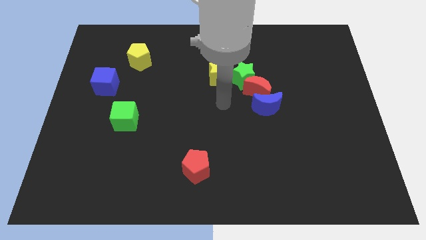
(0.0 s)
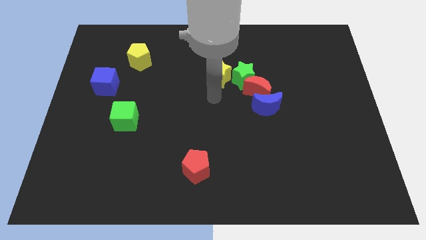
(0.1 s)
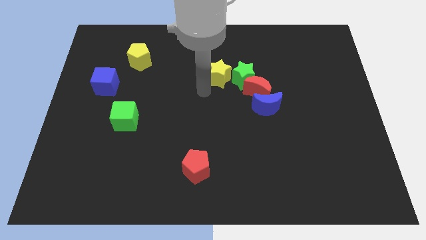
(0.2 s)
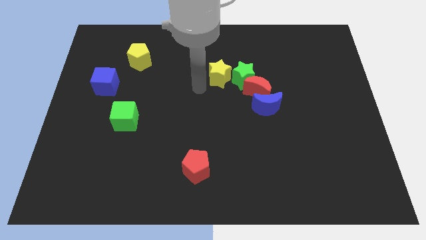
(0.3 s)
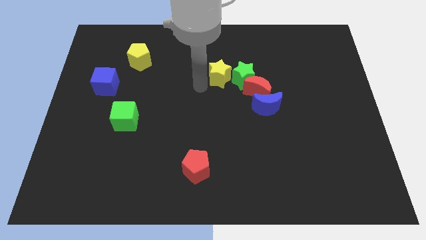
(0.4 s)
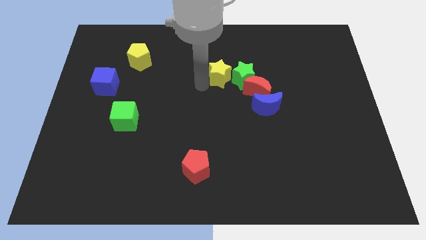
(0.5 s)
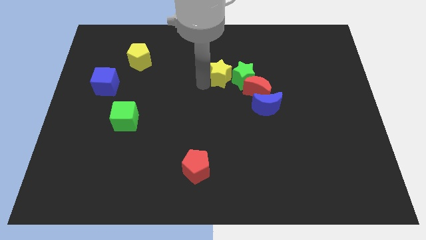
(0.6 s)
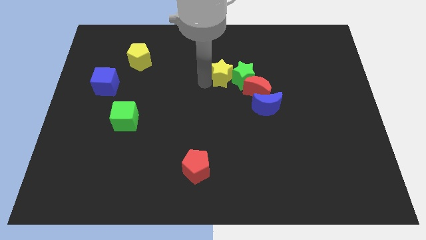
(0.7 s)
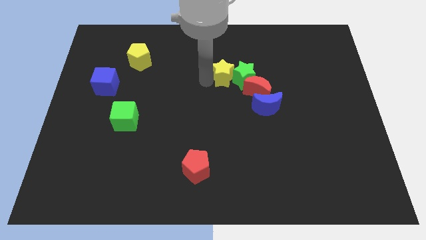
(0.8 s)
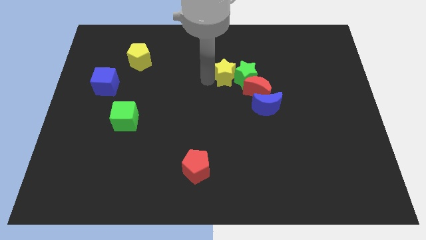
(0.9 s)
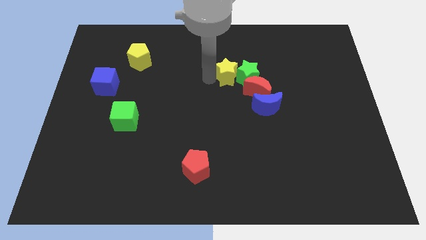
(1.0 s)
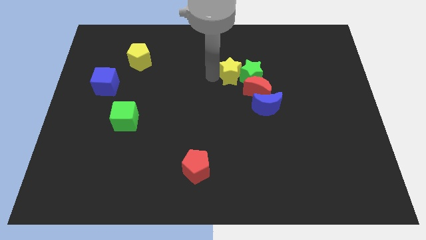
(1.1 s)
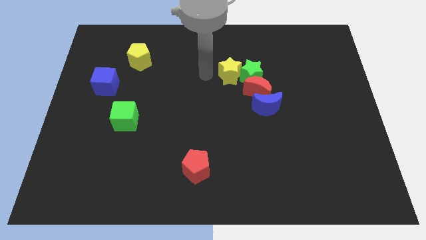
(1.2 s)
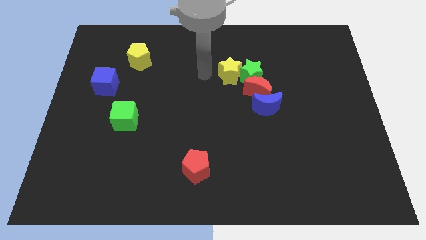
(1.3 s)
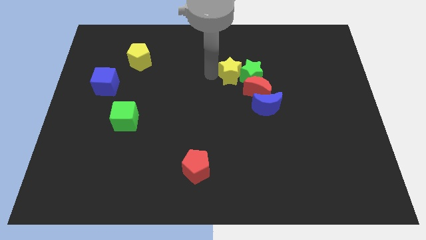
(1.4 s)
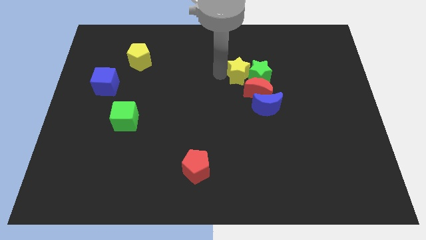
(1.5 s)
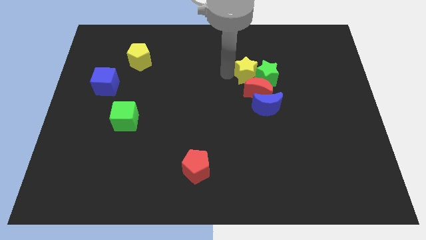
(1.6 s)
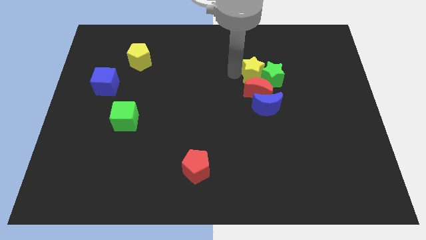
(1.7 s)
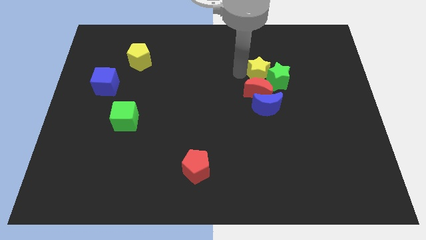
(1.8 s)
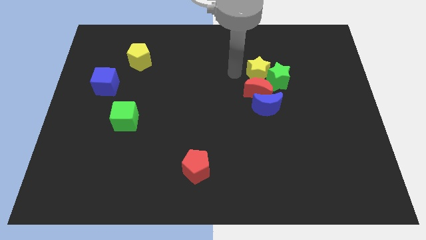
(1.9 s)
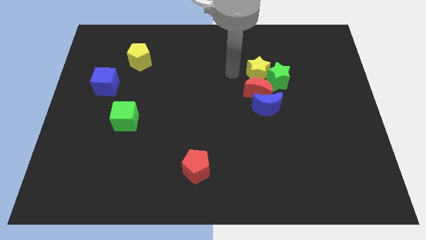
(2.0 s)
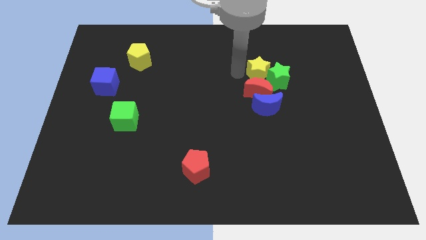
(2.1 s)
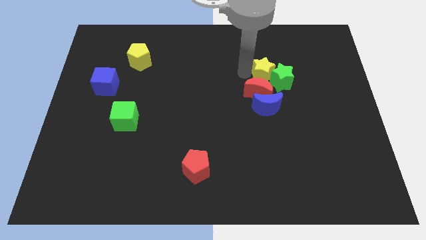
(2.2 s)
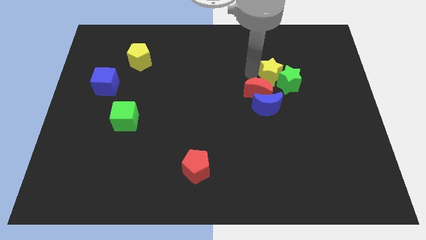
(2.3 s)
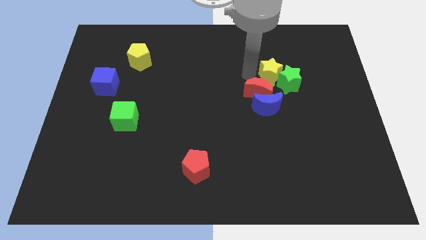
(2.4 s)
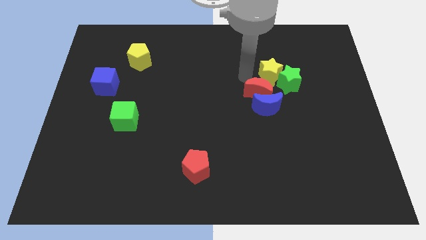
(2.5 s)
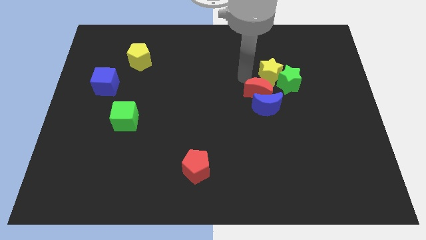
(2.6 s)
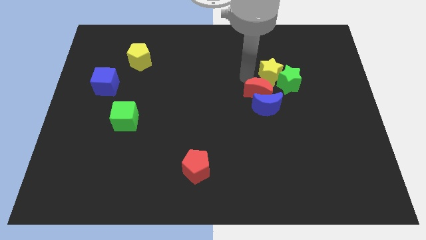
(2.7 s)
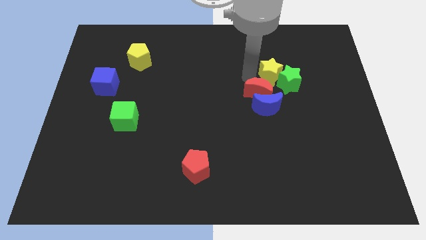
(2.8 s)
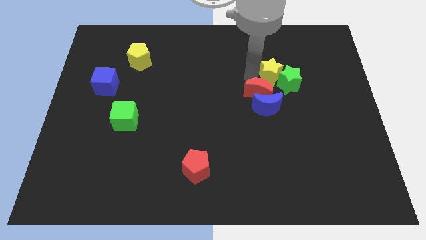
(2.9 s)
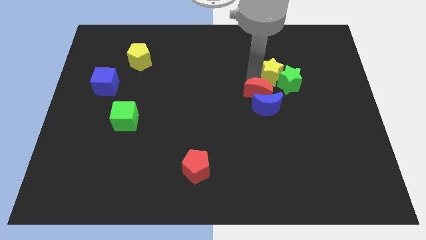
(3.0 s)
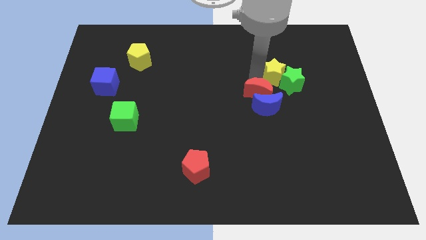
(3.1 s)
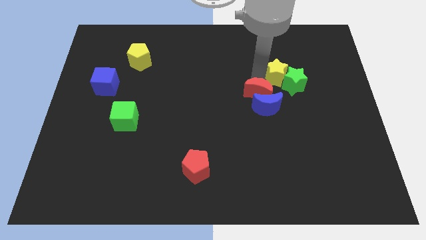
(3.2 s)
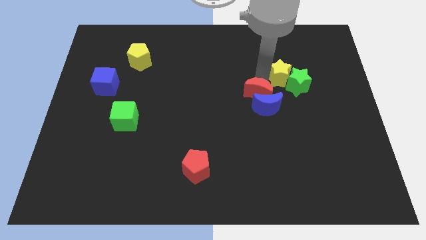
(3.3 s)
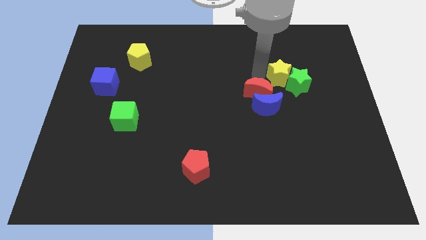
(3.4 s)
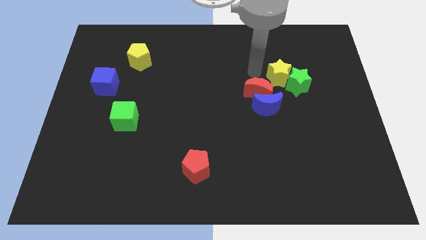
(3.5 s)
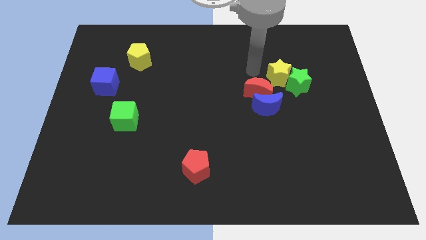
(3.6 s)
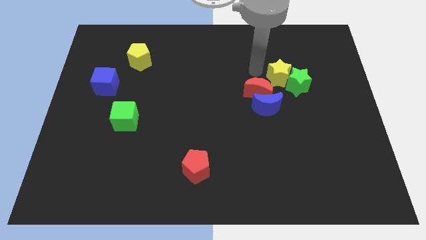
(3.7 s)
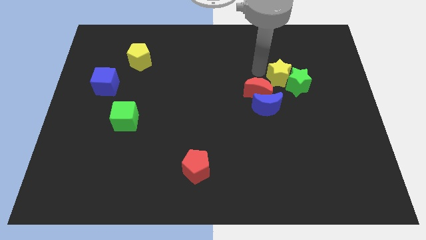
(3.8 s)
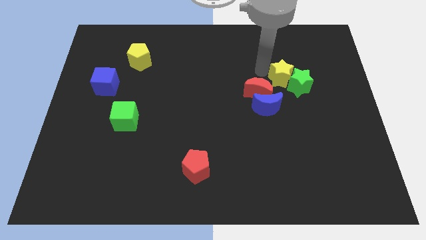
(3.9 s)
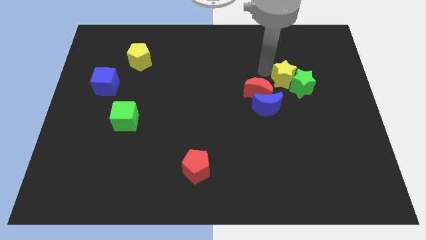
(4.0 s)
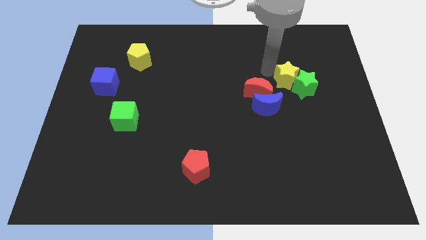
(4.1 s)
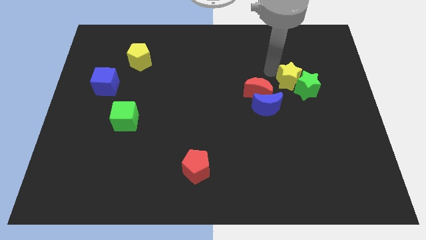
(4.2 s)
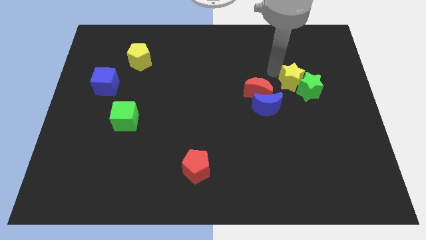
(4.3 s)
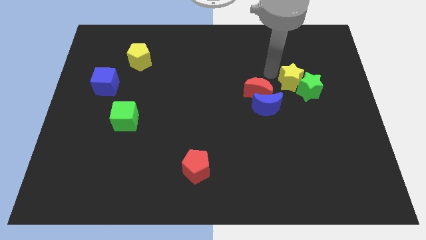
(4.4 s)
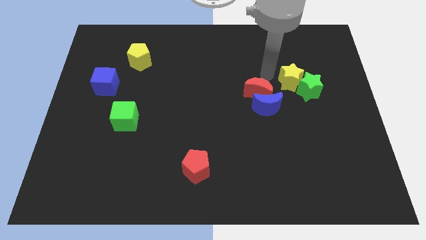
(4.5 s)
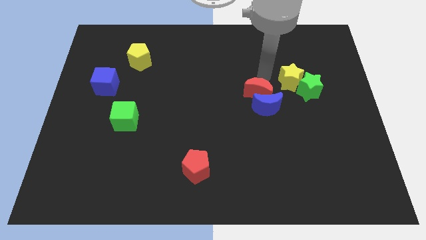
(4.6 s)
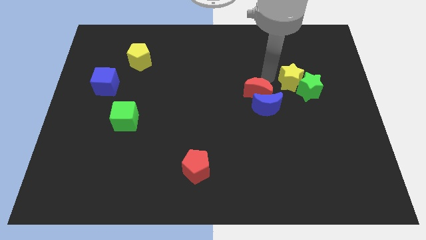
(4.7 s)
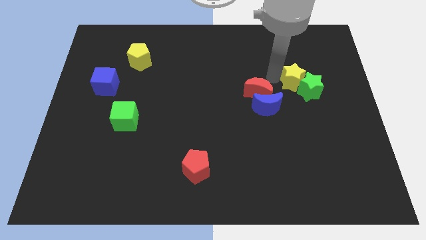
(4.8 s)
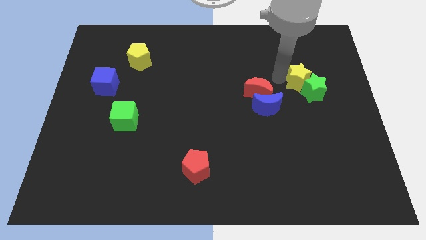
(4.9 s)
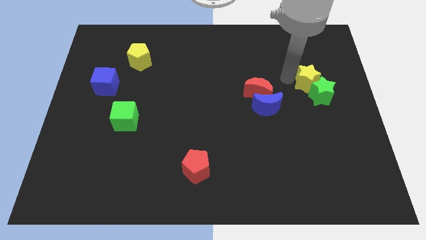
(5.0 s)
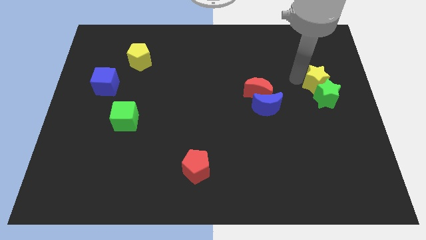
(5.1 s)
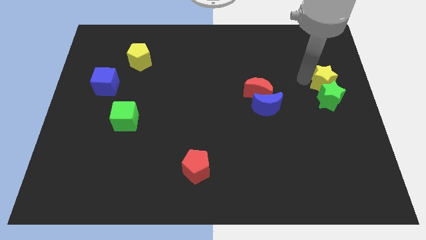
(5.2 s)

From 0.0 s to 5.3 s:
move the yellow star to the right side of the board

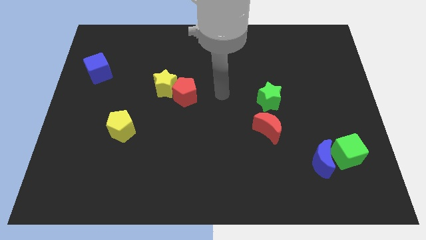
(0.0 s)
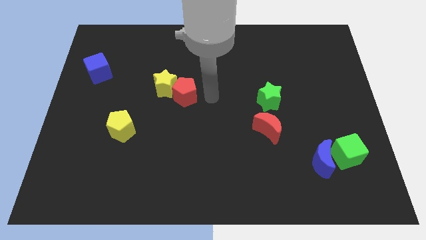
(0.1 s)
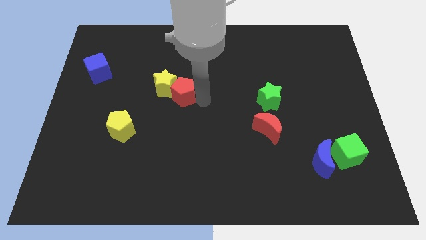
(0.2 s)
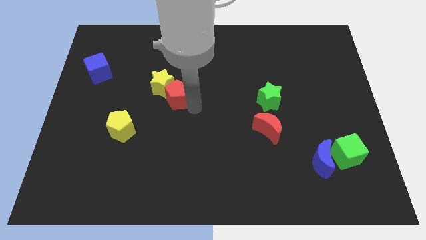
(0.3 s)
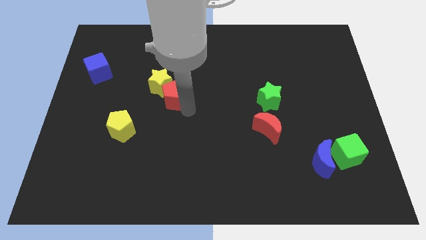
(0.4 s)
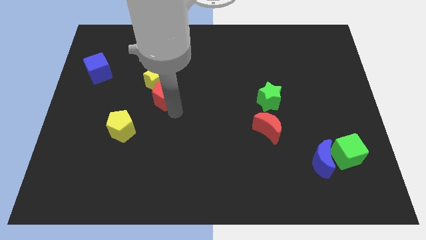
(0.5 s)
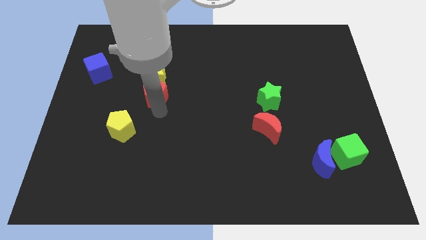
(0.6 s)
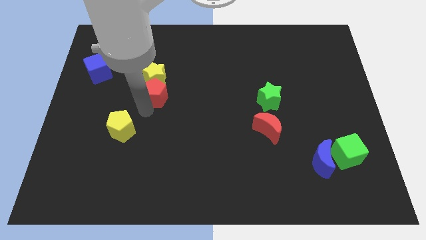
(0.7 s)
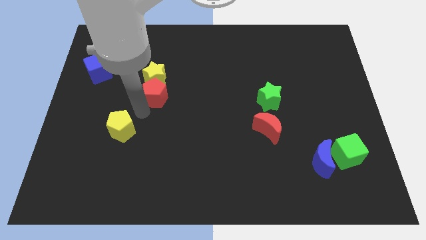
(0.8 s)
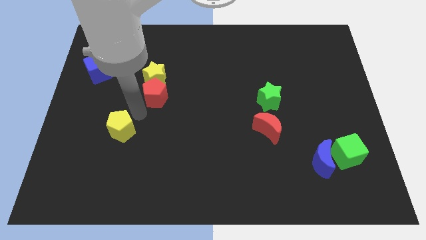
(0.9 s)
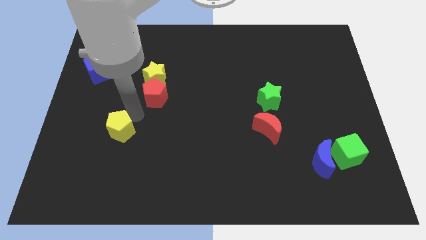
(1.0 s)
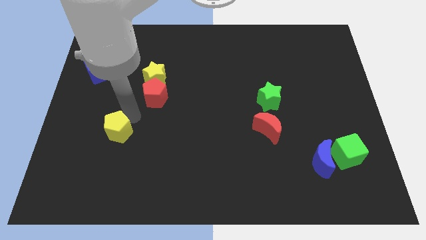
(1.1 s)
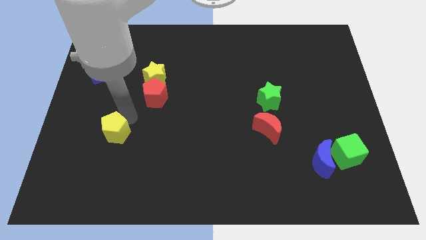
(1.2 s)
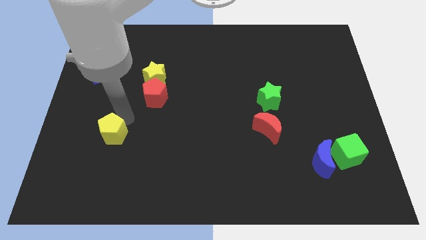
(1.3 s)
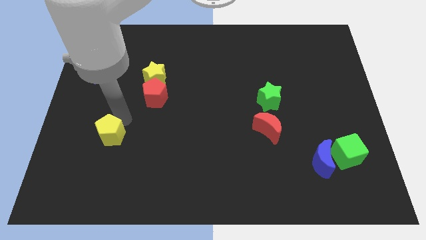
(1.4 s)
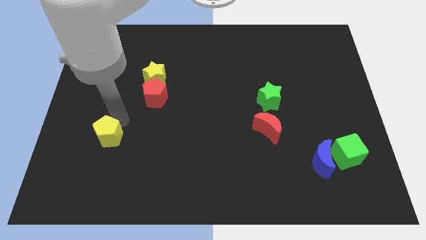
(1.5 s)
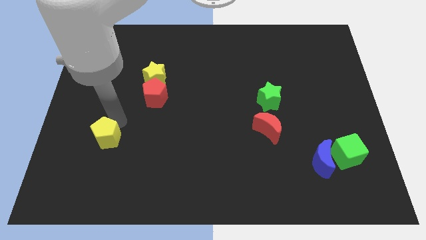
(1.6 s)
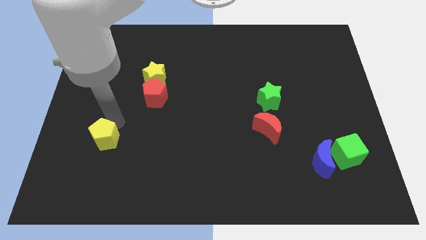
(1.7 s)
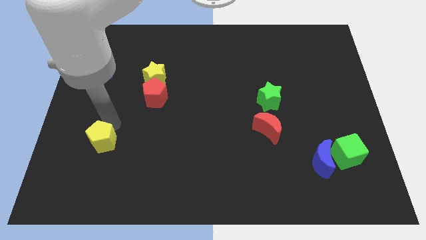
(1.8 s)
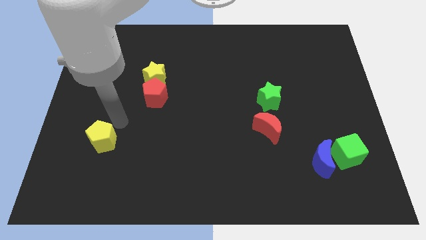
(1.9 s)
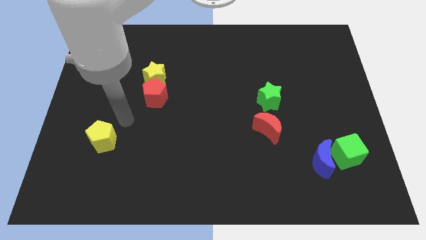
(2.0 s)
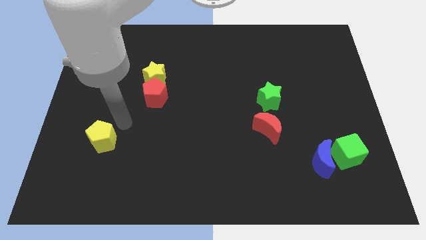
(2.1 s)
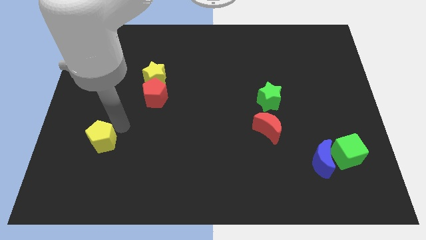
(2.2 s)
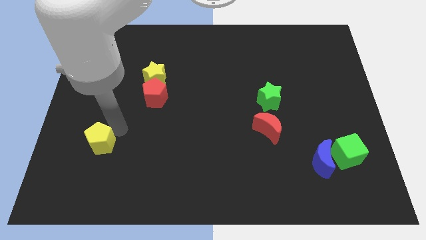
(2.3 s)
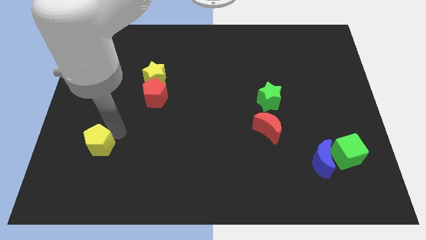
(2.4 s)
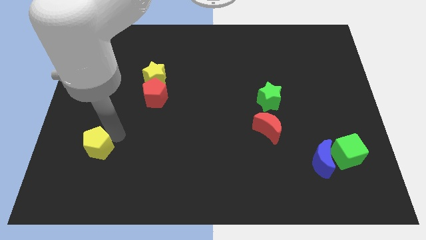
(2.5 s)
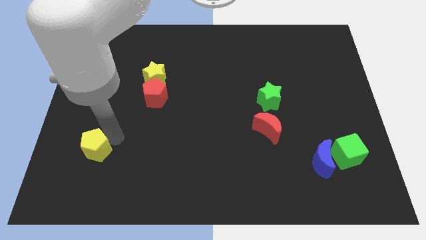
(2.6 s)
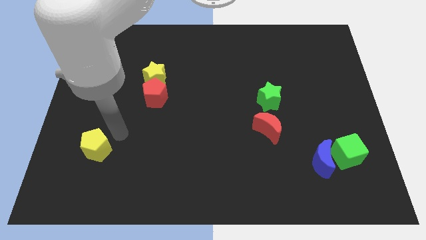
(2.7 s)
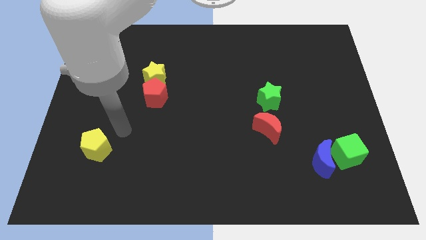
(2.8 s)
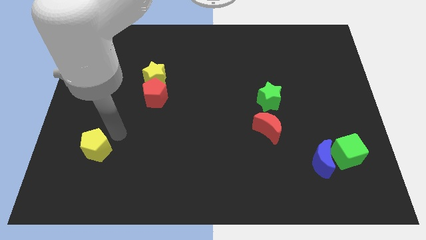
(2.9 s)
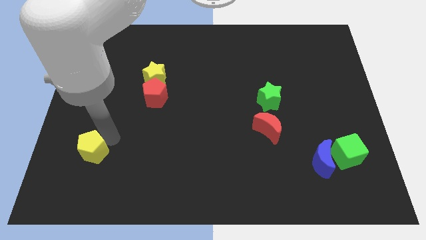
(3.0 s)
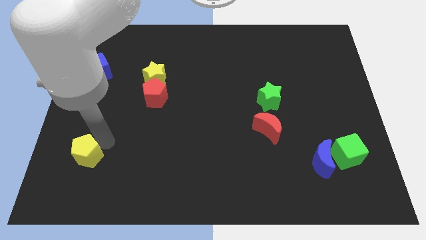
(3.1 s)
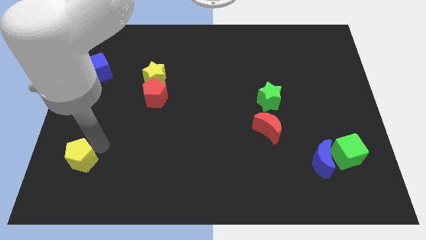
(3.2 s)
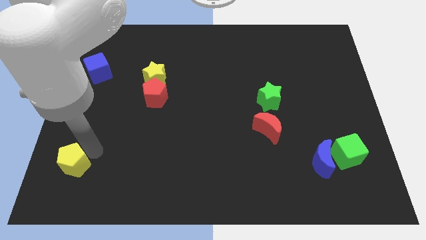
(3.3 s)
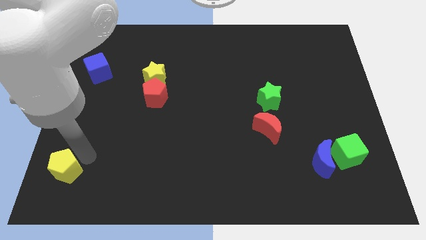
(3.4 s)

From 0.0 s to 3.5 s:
slide the yellow pentagon to the bottom left corner
